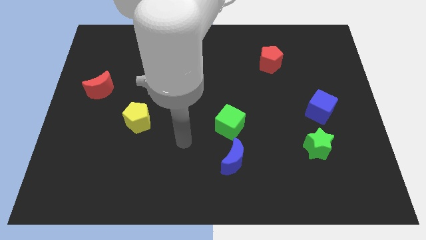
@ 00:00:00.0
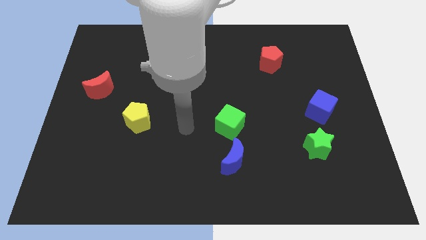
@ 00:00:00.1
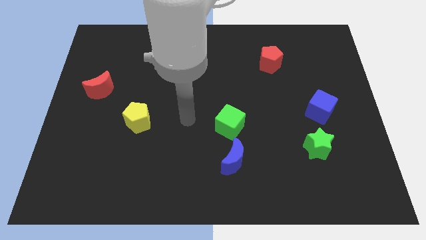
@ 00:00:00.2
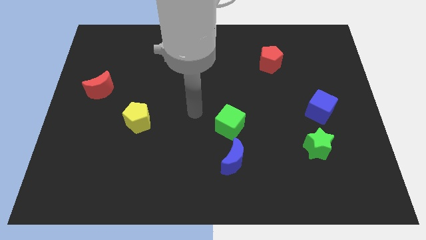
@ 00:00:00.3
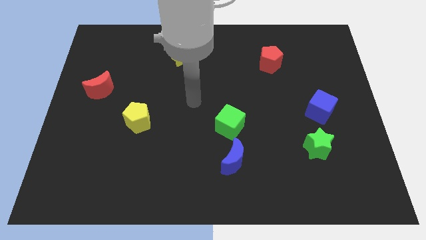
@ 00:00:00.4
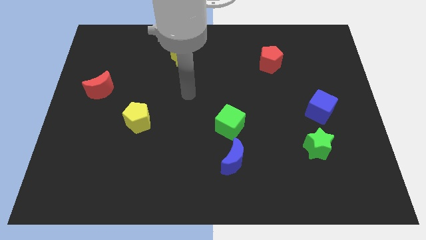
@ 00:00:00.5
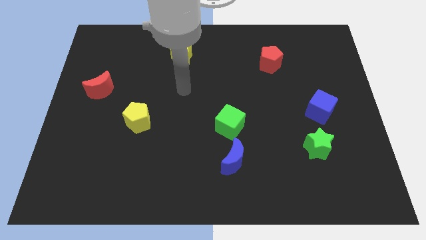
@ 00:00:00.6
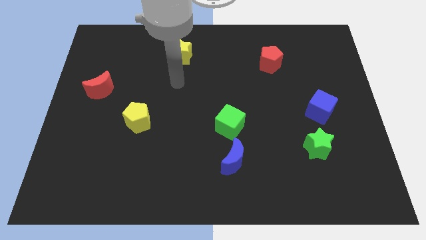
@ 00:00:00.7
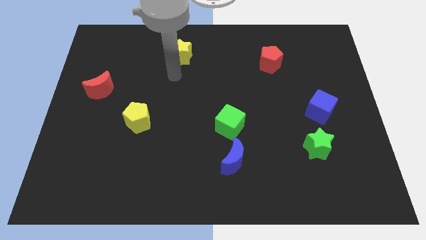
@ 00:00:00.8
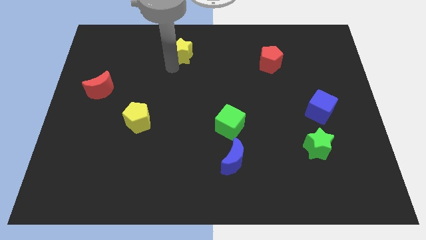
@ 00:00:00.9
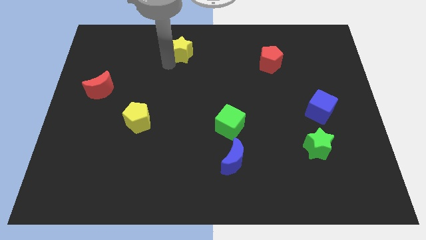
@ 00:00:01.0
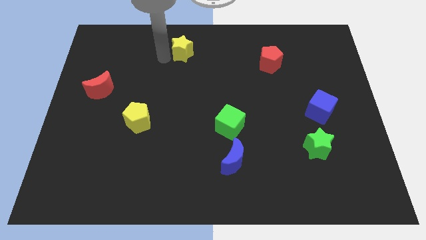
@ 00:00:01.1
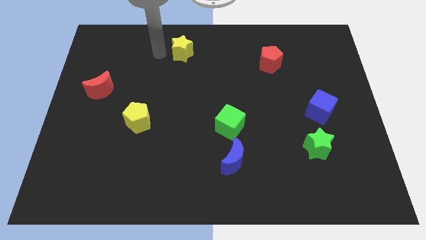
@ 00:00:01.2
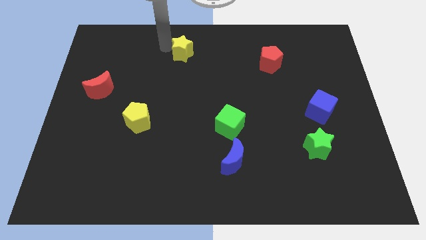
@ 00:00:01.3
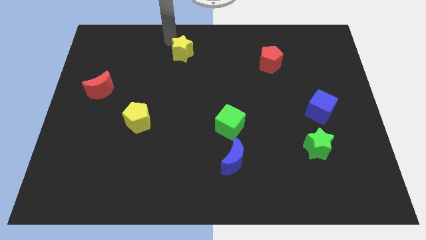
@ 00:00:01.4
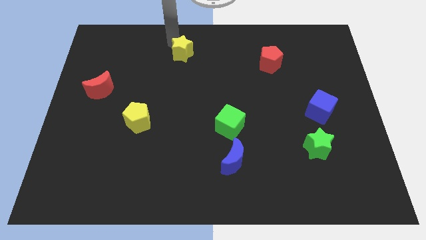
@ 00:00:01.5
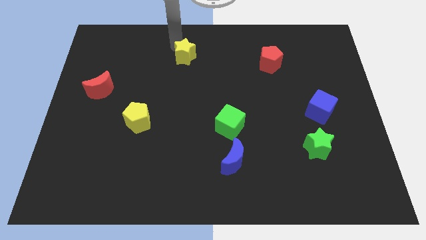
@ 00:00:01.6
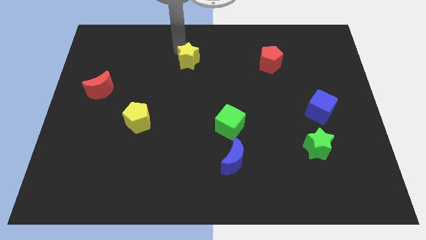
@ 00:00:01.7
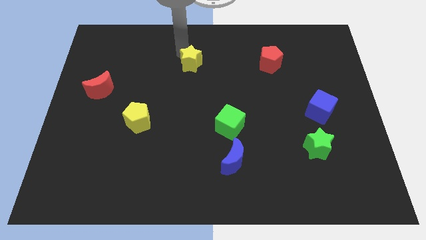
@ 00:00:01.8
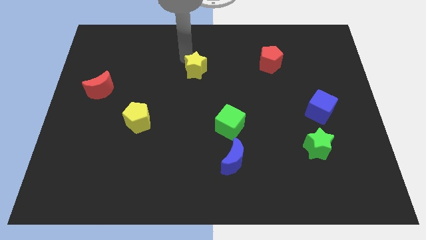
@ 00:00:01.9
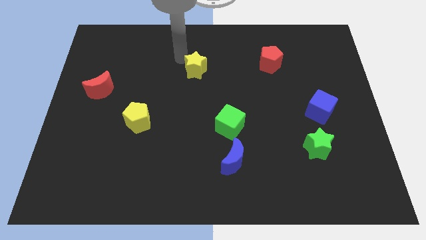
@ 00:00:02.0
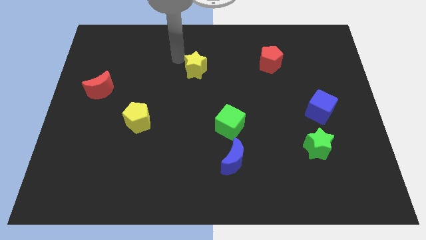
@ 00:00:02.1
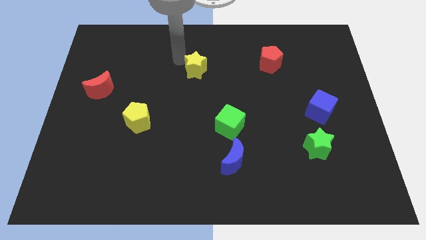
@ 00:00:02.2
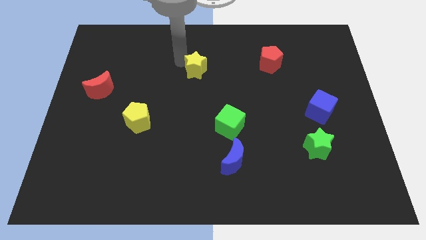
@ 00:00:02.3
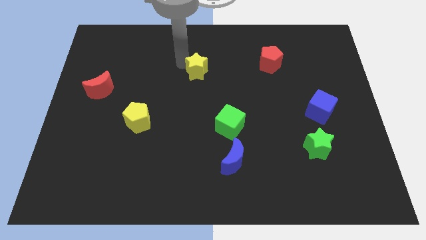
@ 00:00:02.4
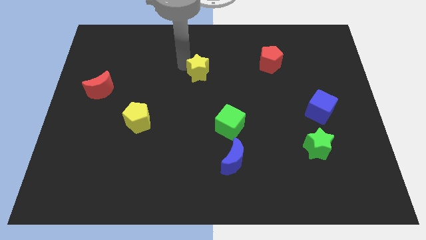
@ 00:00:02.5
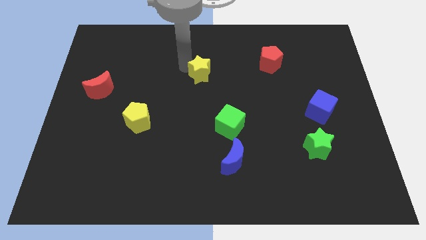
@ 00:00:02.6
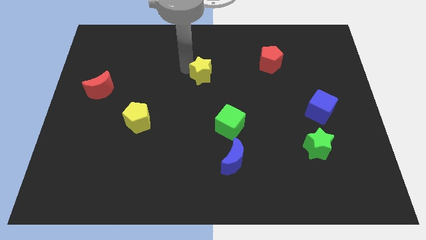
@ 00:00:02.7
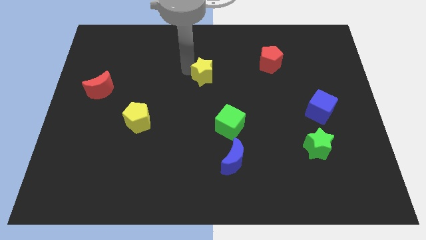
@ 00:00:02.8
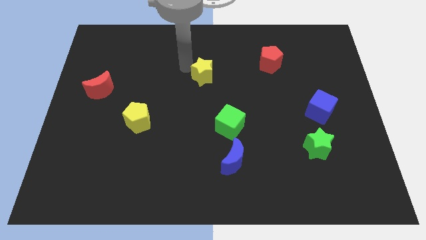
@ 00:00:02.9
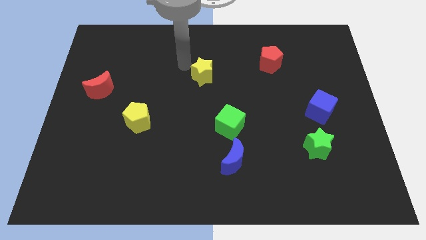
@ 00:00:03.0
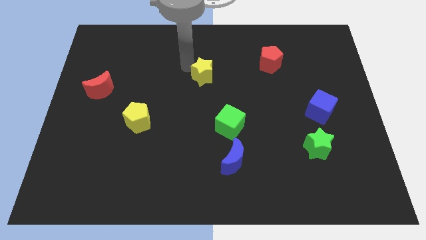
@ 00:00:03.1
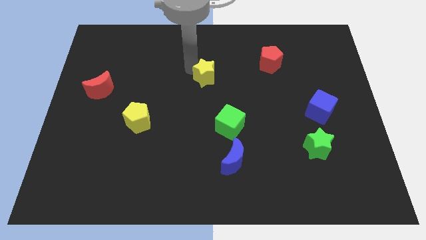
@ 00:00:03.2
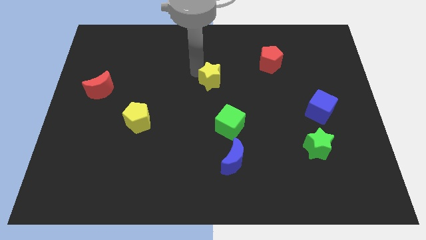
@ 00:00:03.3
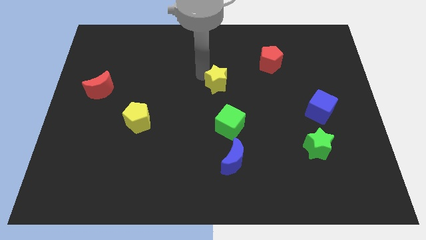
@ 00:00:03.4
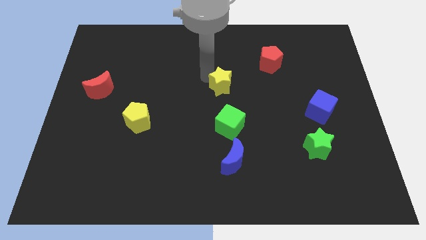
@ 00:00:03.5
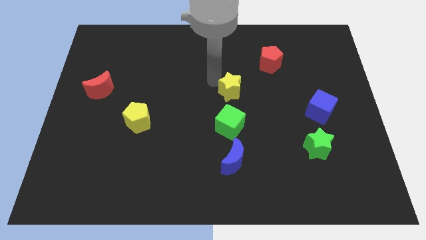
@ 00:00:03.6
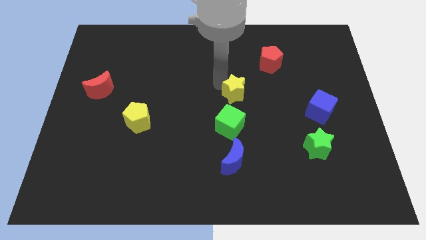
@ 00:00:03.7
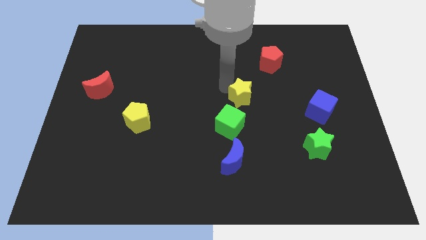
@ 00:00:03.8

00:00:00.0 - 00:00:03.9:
slide the yellow star down and right

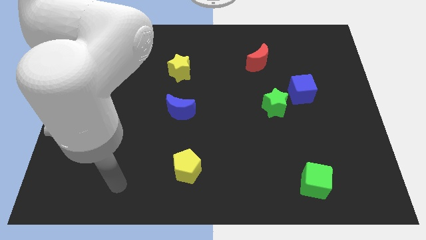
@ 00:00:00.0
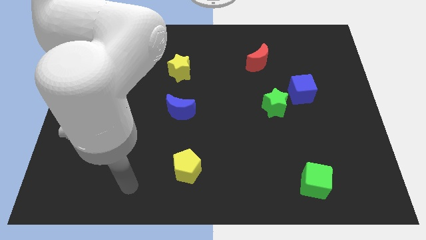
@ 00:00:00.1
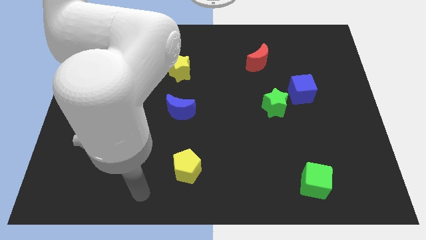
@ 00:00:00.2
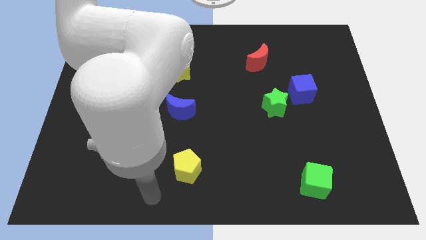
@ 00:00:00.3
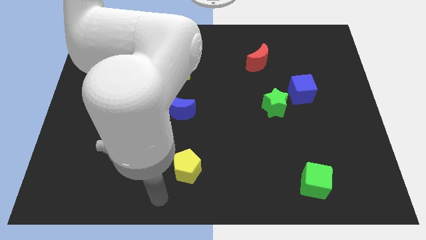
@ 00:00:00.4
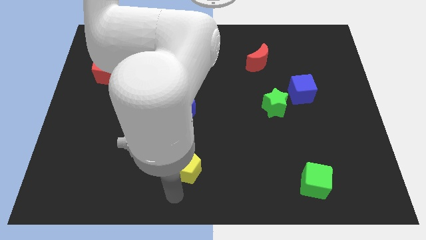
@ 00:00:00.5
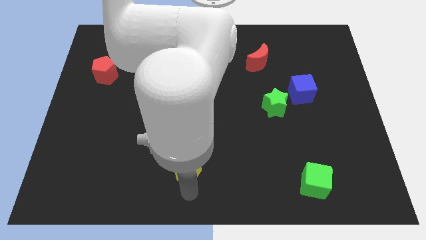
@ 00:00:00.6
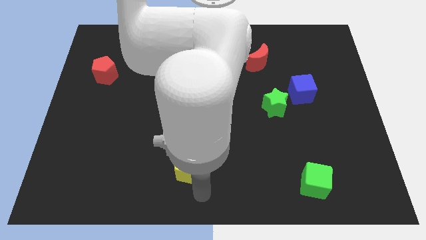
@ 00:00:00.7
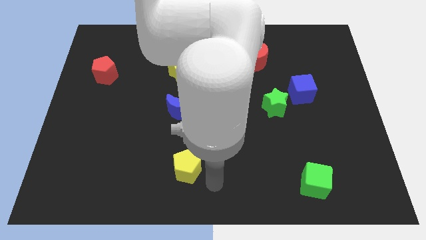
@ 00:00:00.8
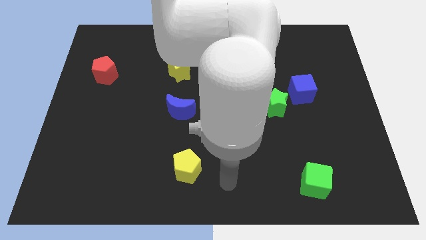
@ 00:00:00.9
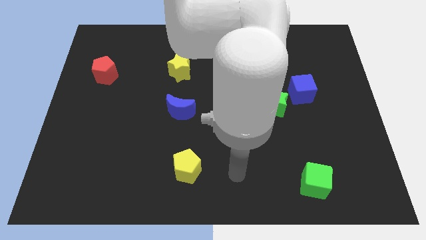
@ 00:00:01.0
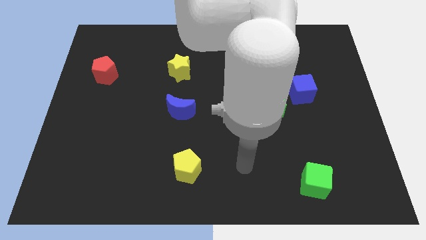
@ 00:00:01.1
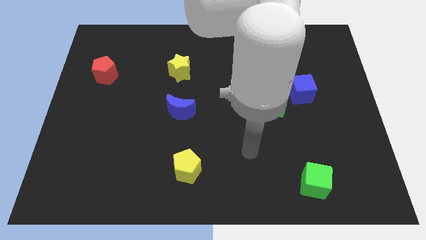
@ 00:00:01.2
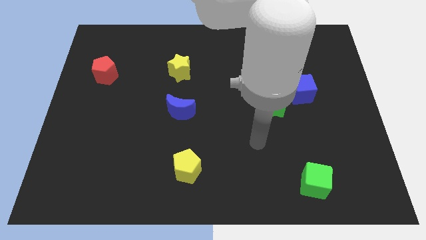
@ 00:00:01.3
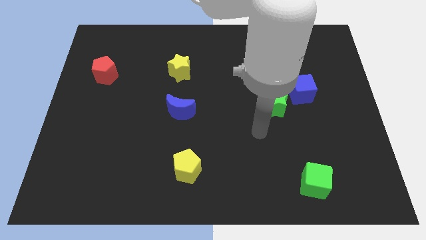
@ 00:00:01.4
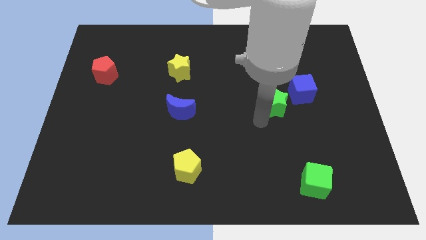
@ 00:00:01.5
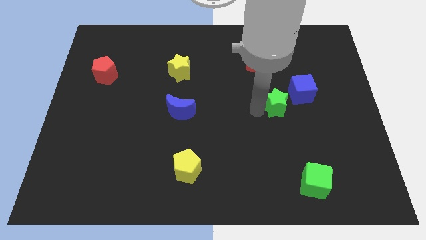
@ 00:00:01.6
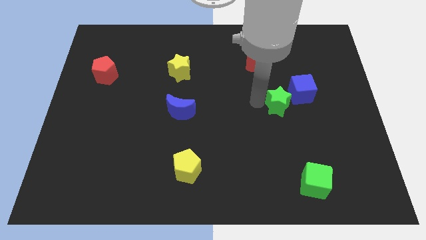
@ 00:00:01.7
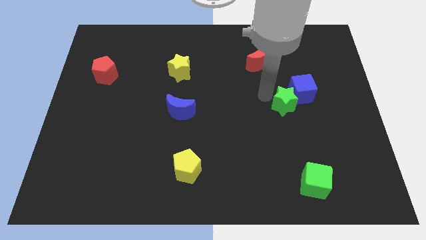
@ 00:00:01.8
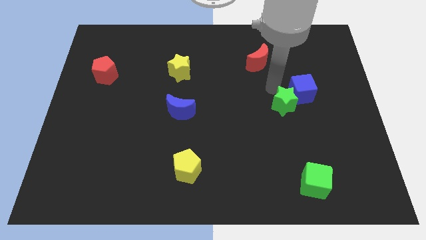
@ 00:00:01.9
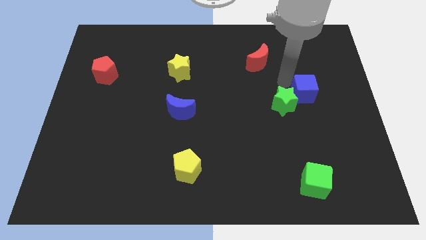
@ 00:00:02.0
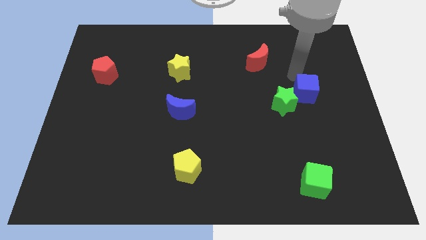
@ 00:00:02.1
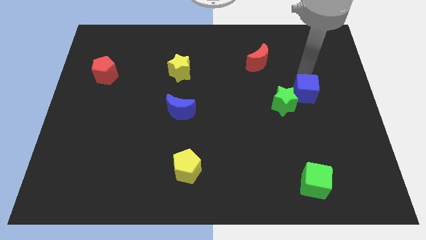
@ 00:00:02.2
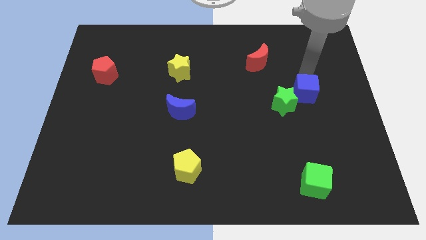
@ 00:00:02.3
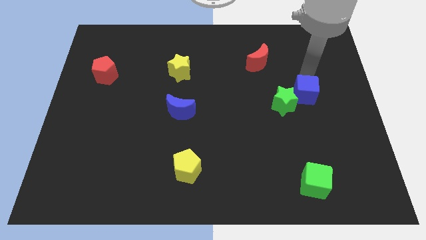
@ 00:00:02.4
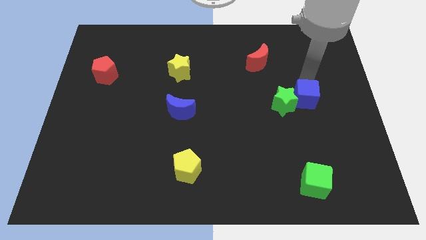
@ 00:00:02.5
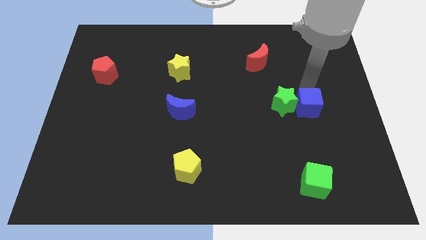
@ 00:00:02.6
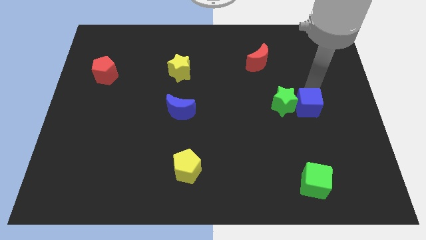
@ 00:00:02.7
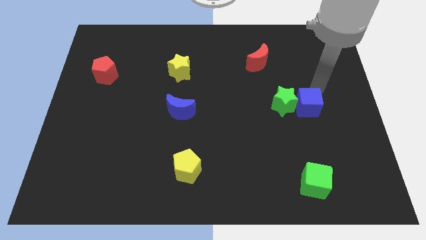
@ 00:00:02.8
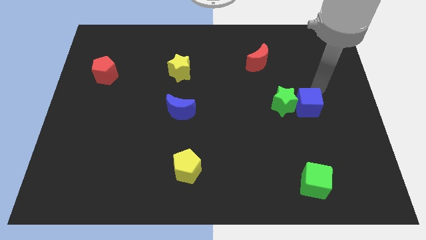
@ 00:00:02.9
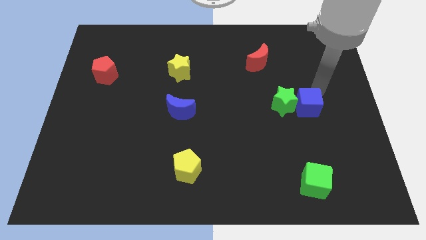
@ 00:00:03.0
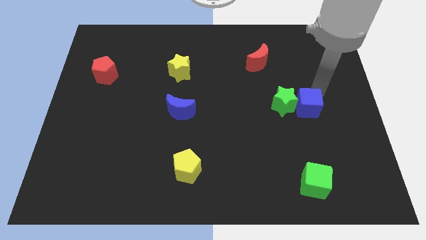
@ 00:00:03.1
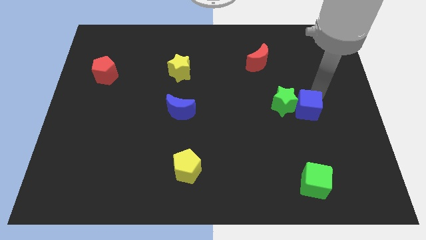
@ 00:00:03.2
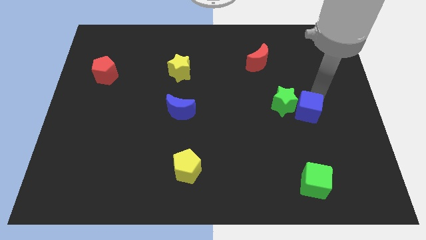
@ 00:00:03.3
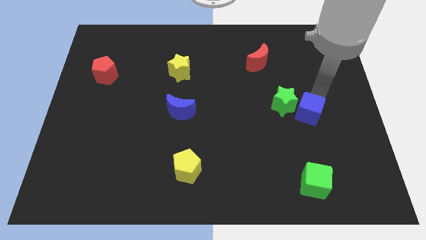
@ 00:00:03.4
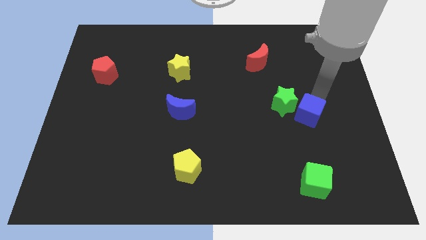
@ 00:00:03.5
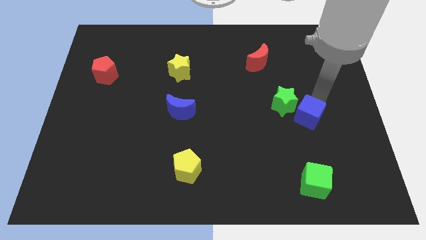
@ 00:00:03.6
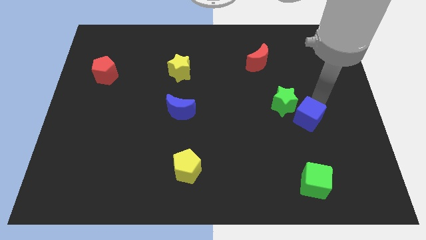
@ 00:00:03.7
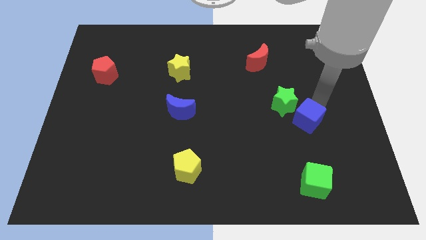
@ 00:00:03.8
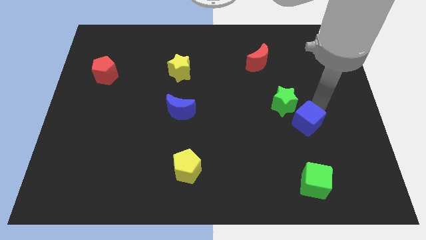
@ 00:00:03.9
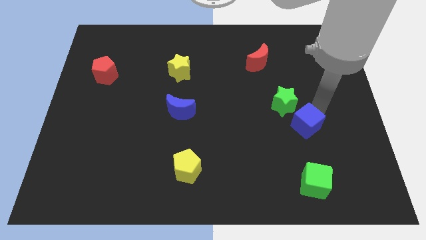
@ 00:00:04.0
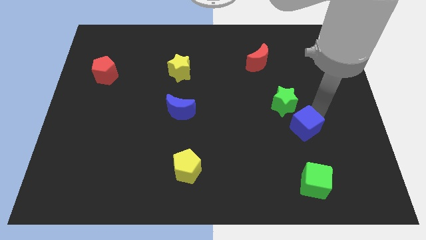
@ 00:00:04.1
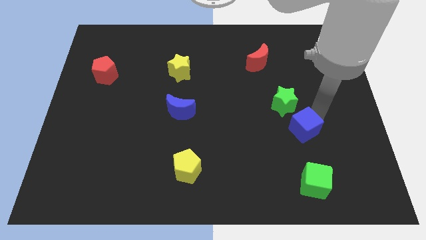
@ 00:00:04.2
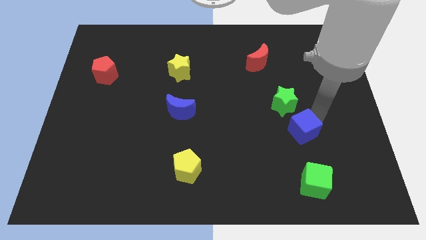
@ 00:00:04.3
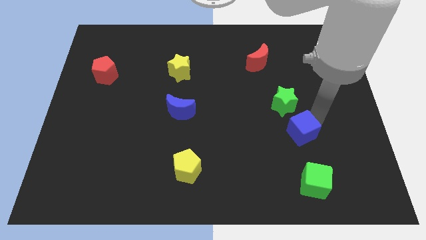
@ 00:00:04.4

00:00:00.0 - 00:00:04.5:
move the blue cube a little bit diagonally downwards and to the left

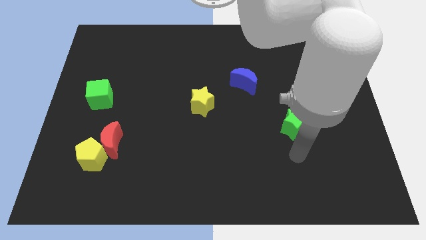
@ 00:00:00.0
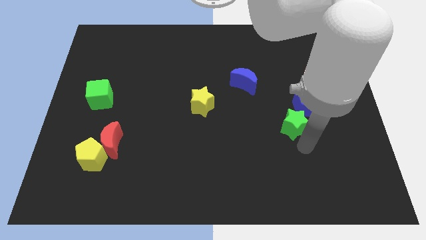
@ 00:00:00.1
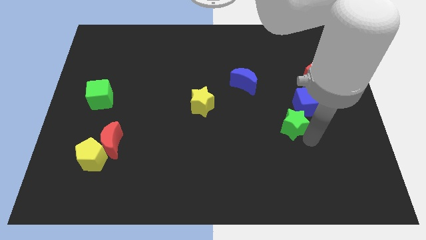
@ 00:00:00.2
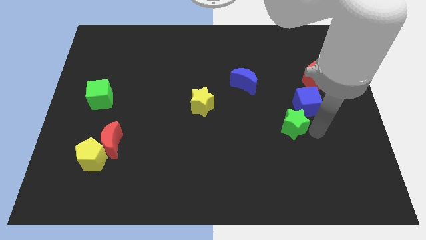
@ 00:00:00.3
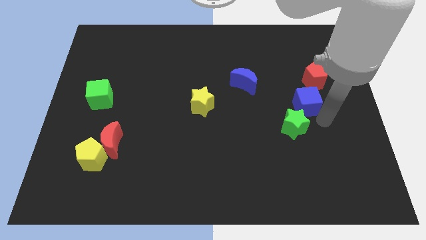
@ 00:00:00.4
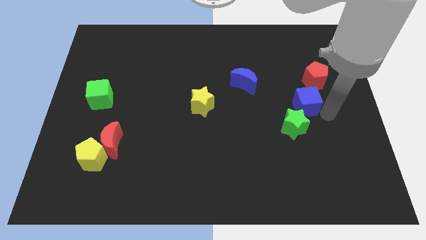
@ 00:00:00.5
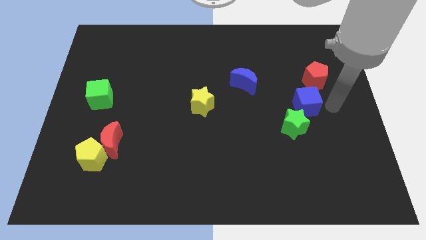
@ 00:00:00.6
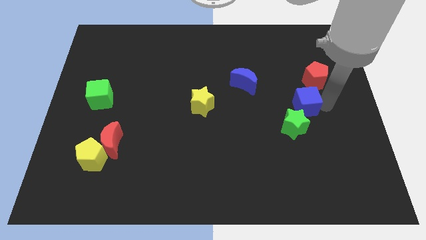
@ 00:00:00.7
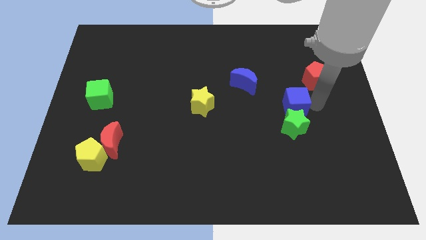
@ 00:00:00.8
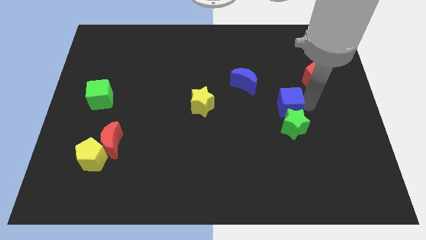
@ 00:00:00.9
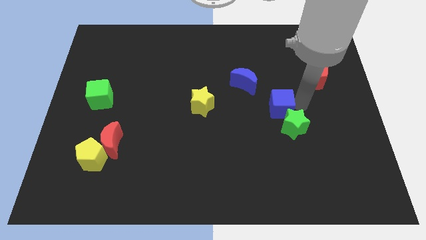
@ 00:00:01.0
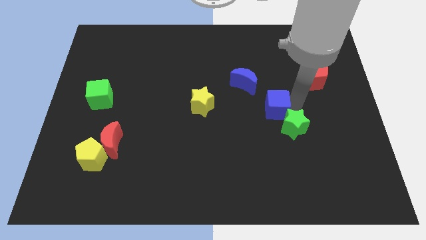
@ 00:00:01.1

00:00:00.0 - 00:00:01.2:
slightly slide the blue cube to the left
